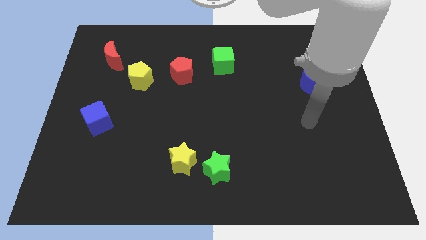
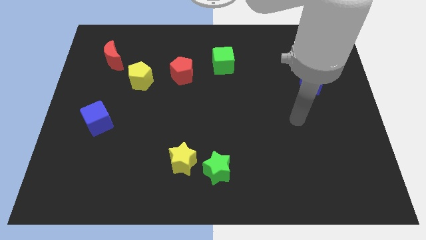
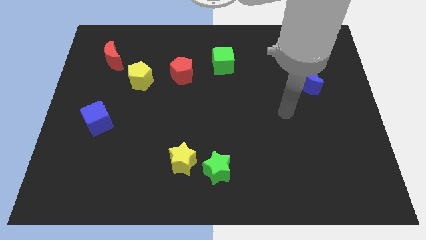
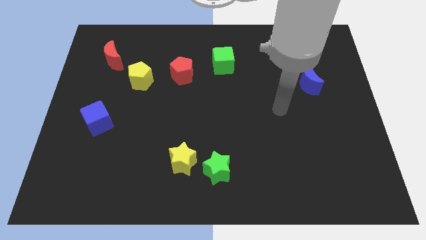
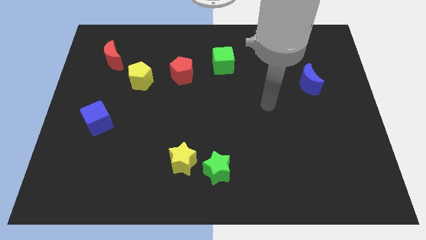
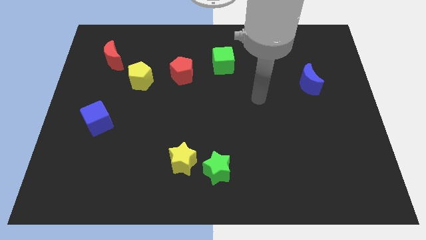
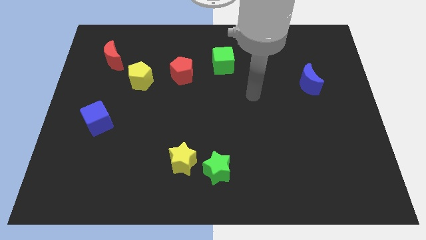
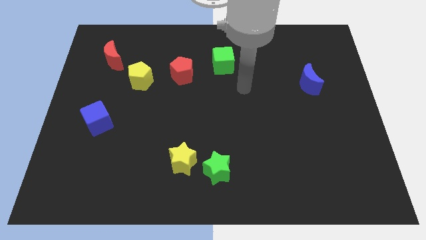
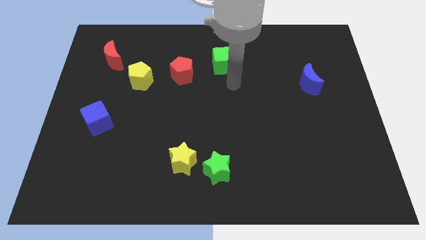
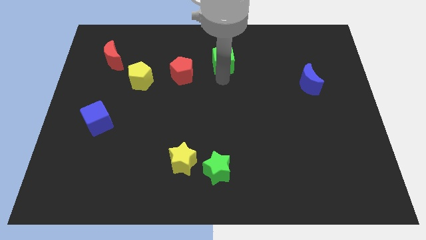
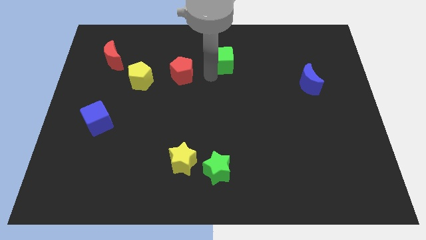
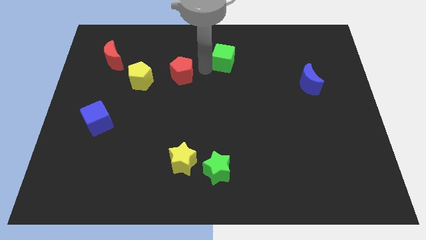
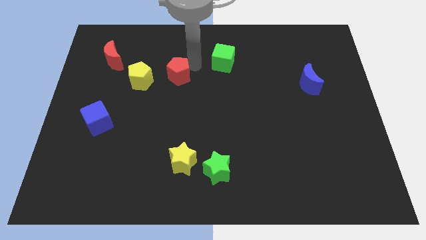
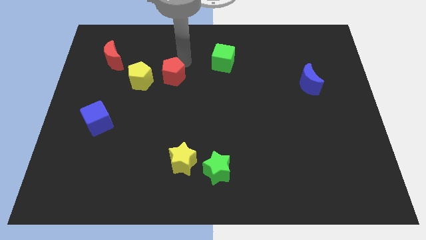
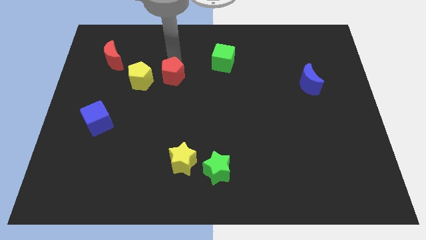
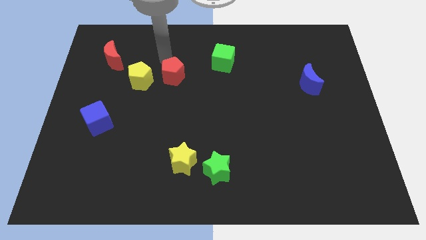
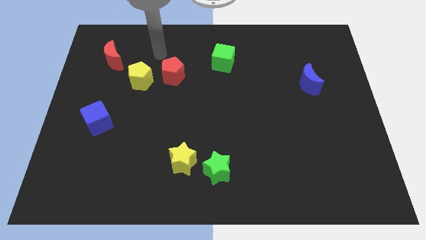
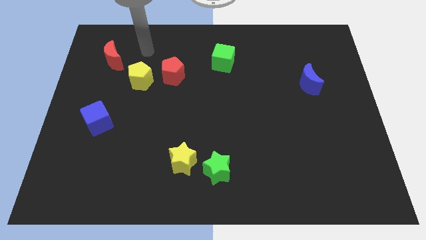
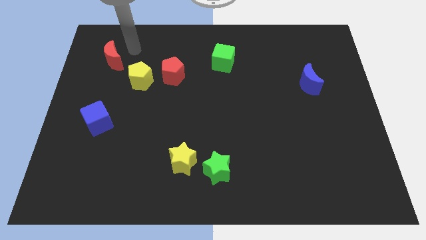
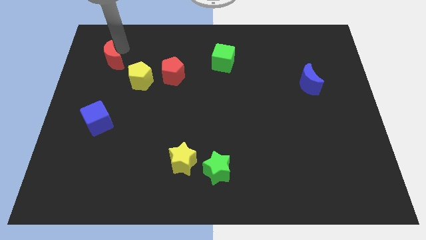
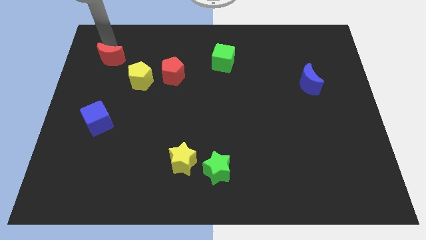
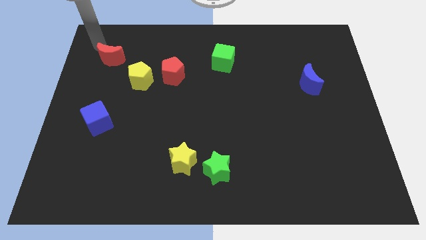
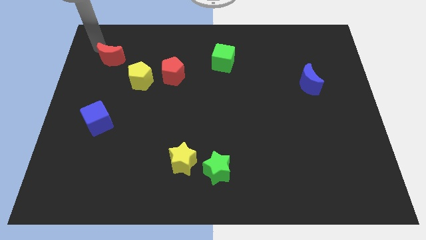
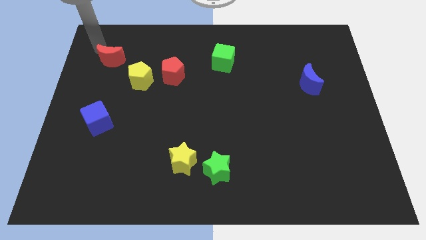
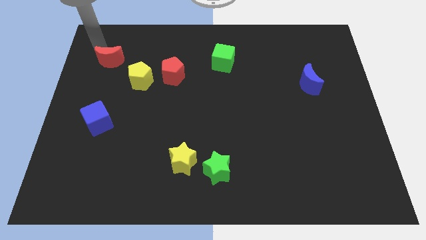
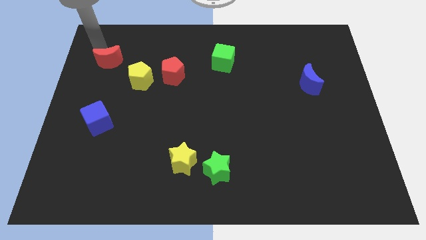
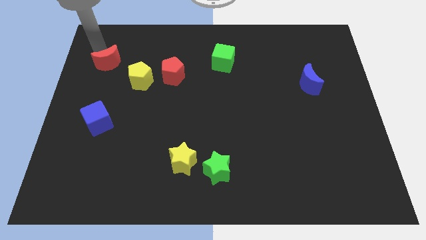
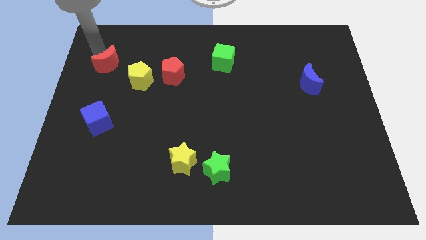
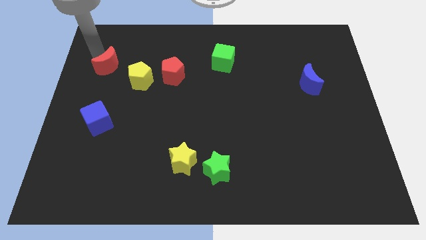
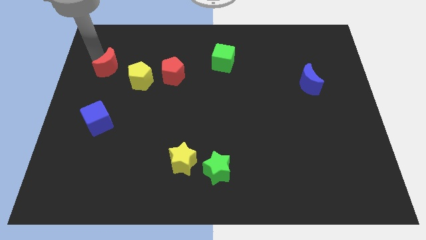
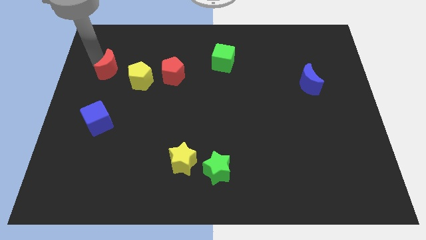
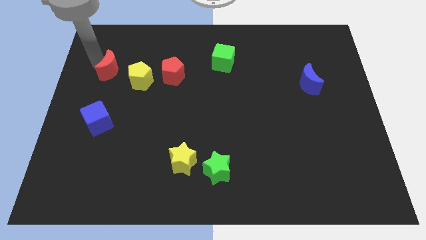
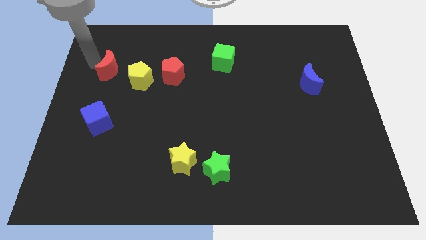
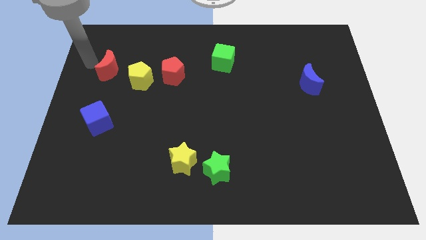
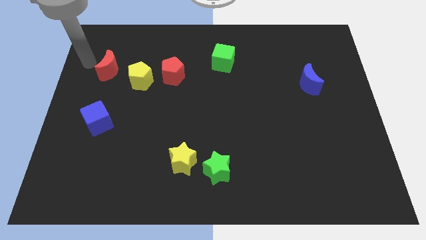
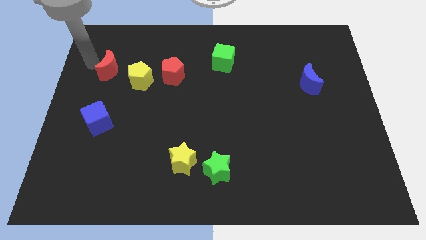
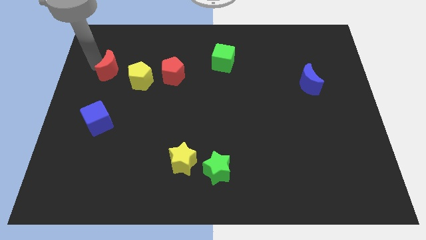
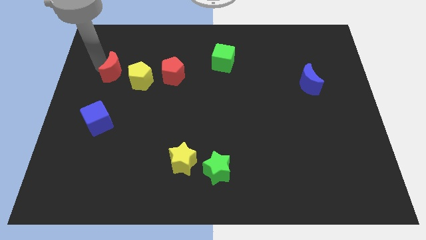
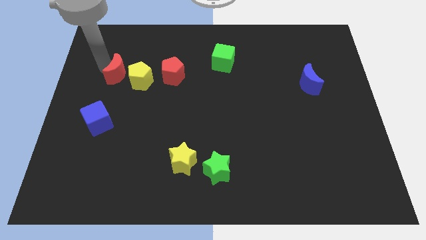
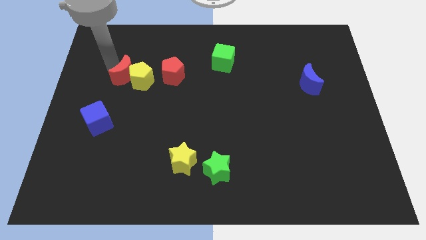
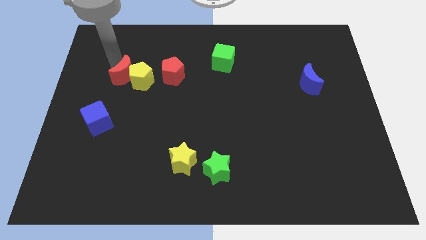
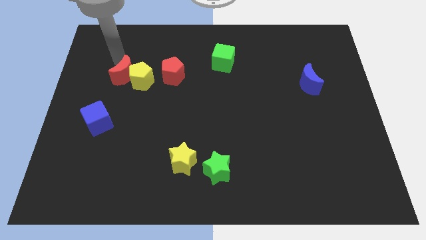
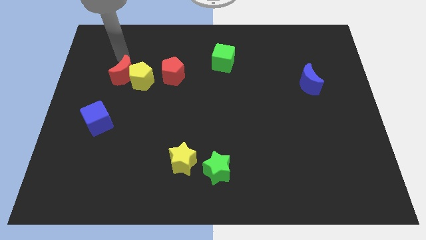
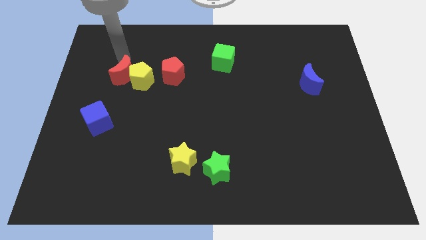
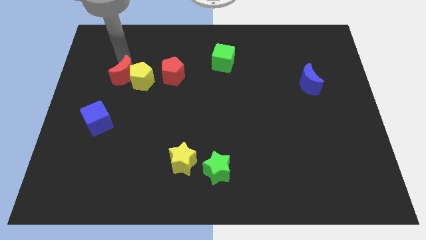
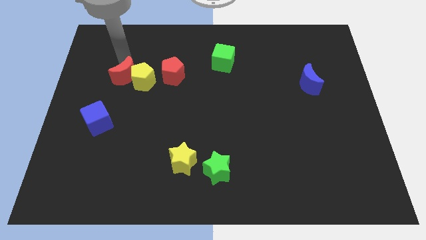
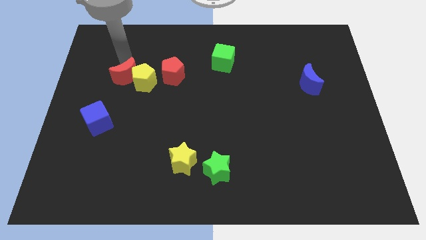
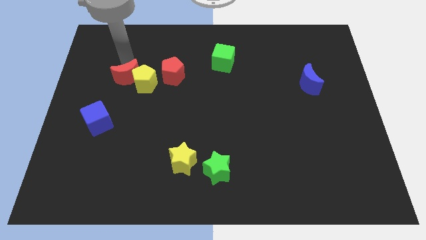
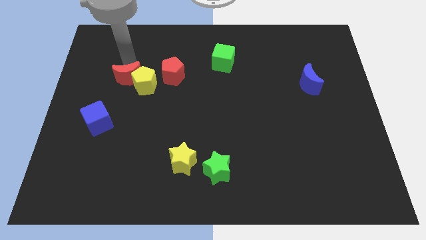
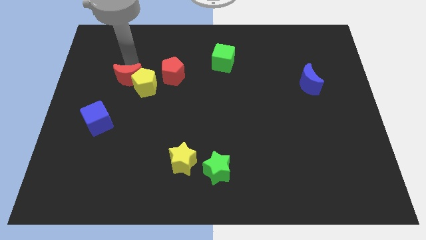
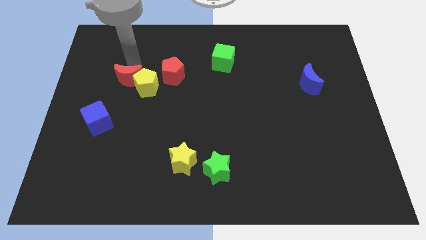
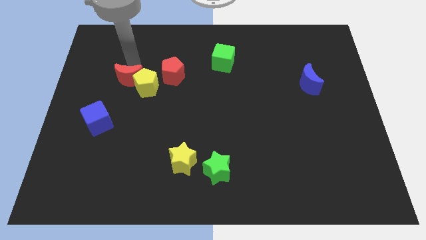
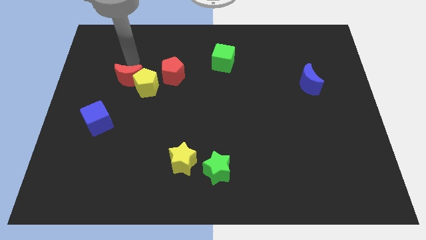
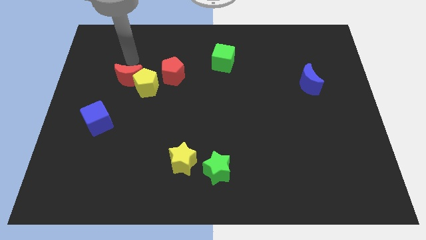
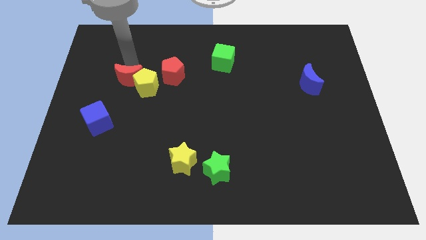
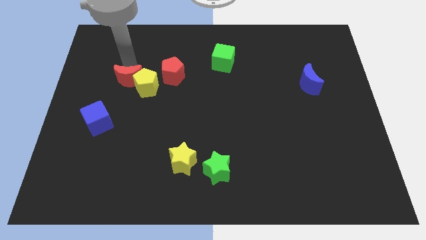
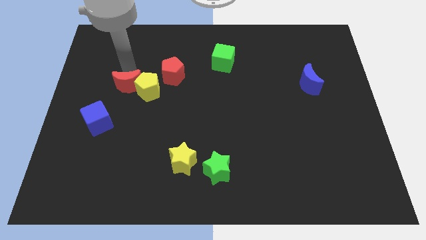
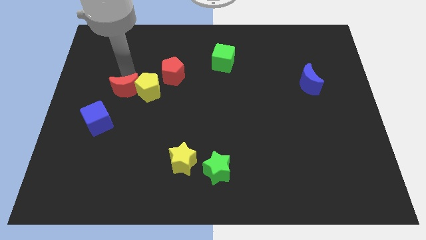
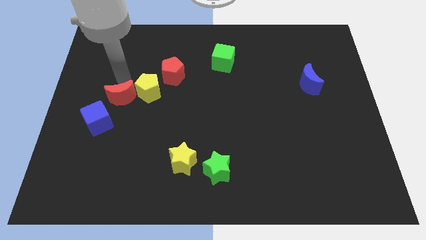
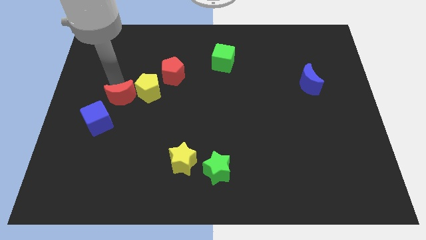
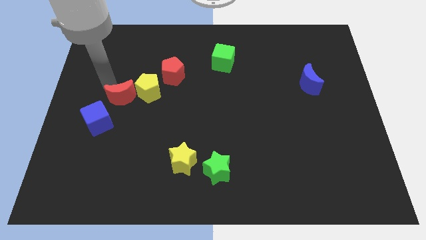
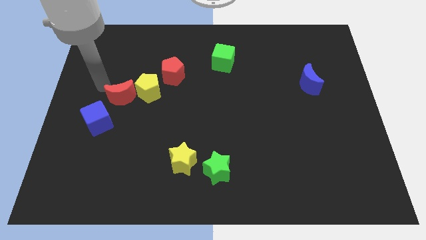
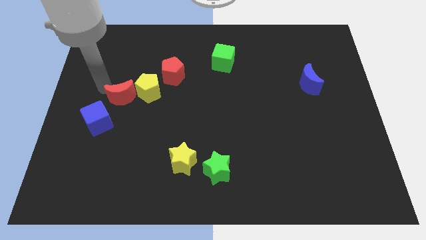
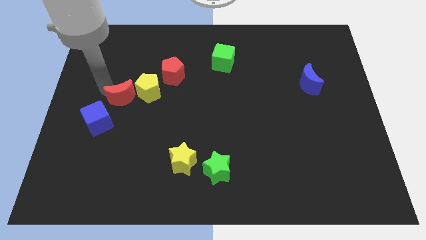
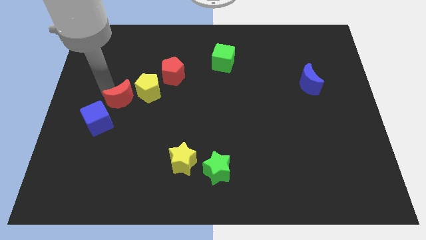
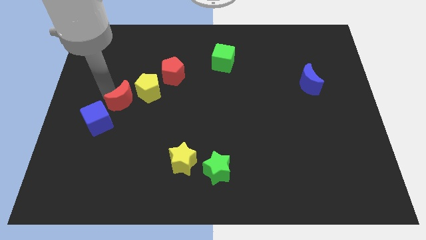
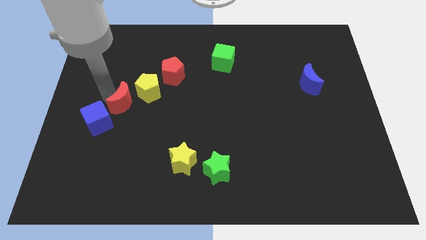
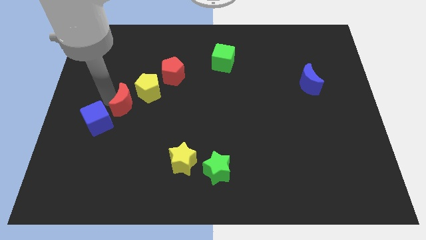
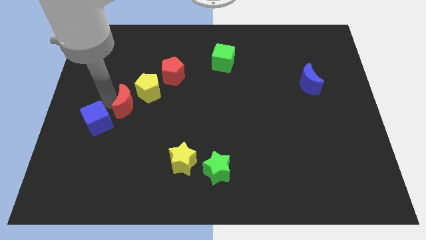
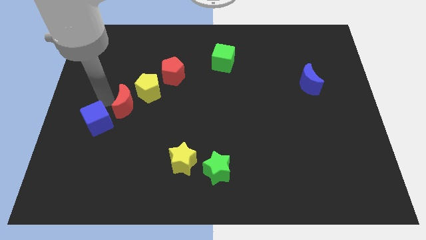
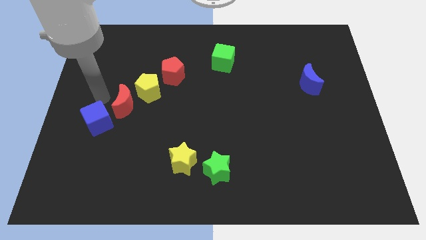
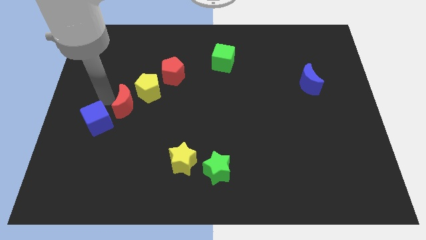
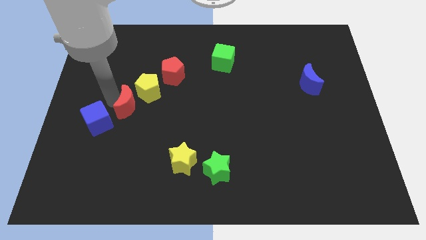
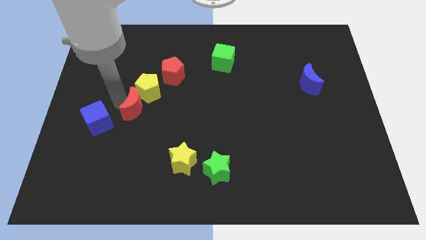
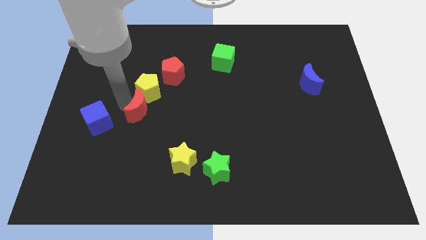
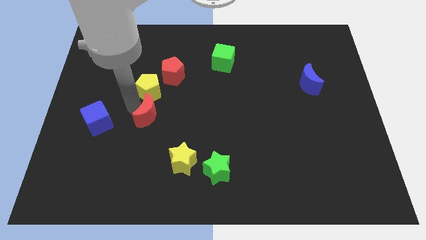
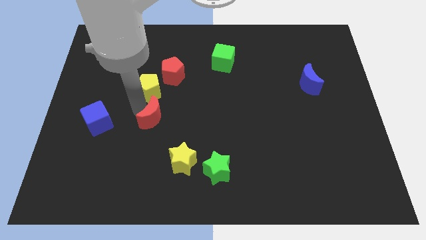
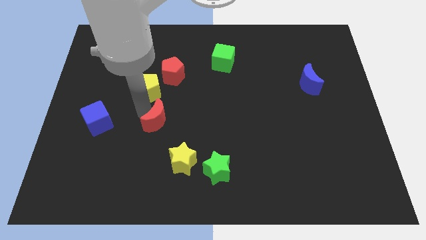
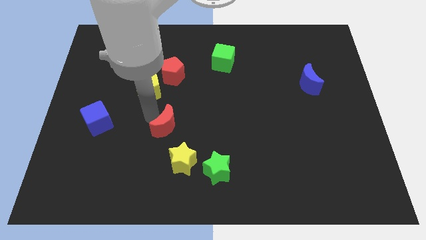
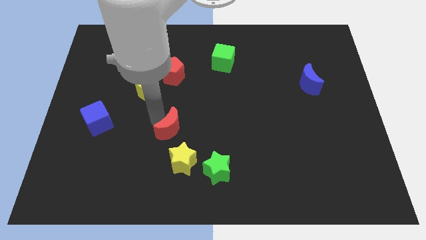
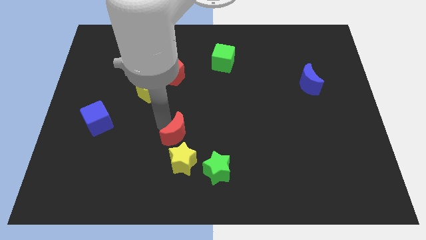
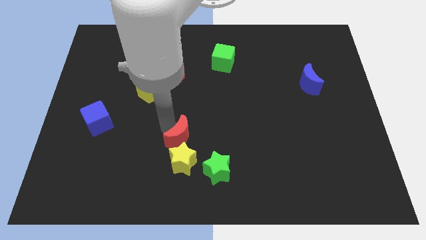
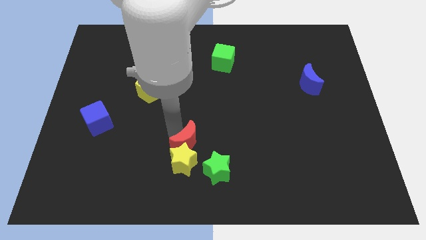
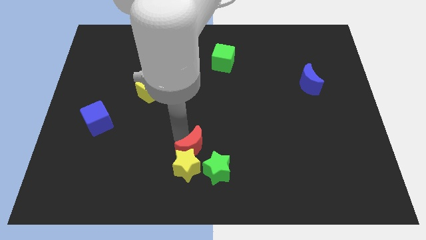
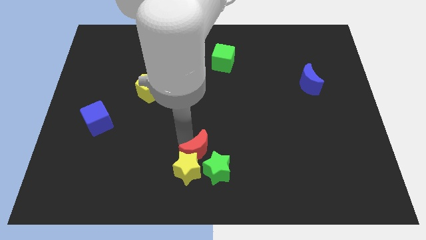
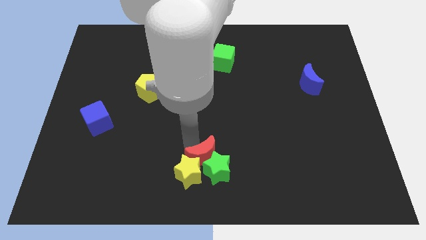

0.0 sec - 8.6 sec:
put the red moon to the green star
